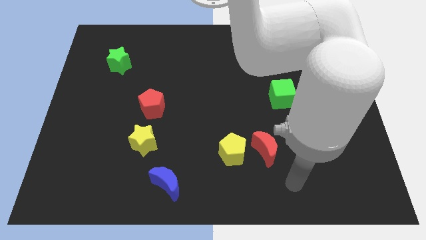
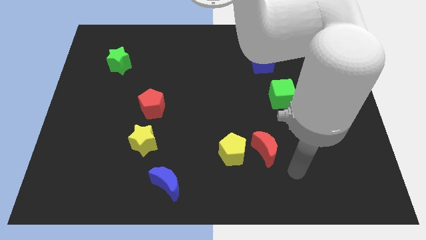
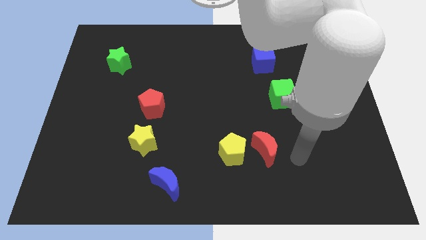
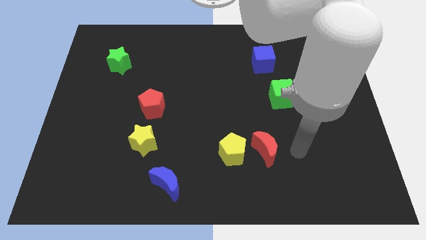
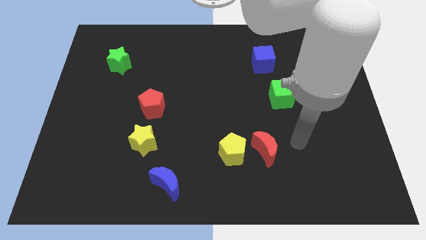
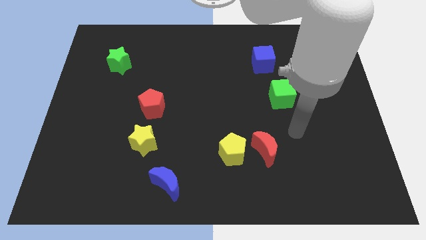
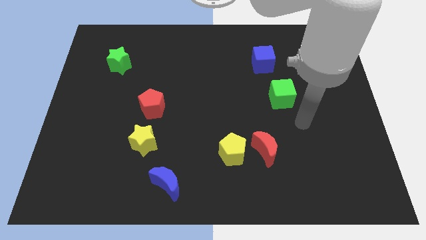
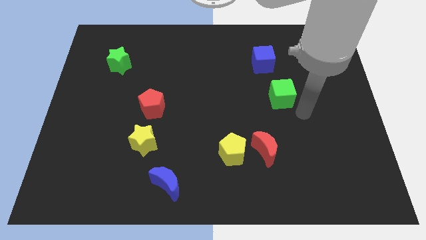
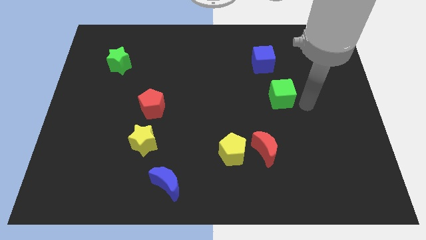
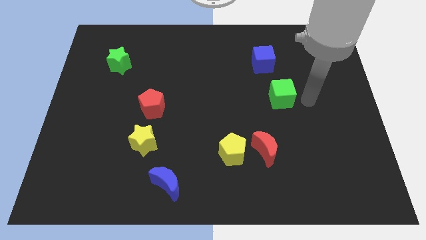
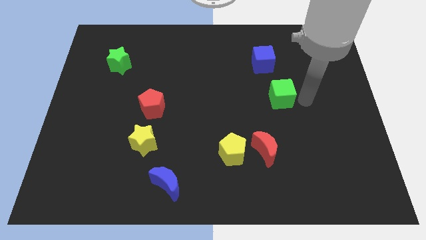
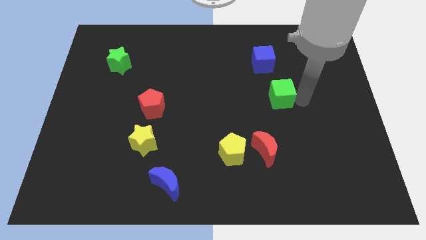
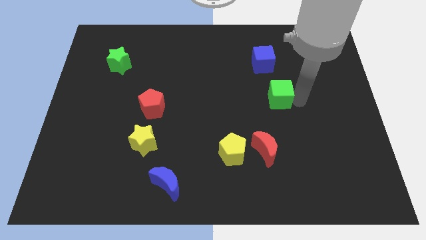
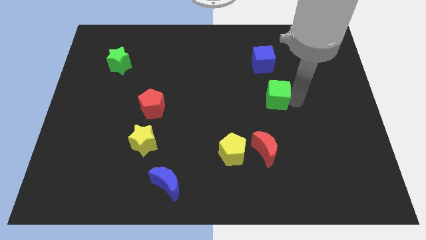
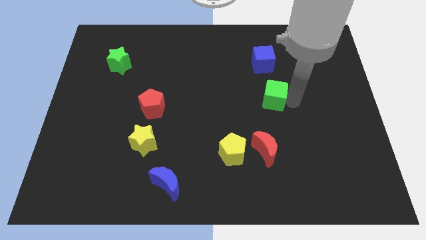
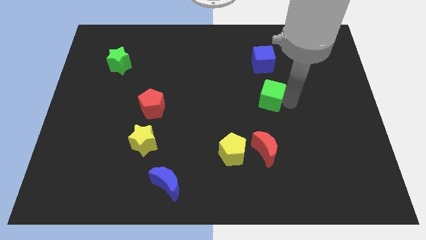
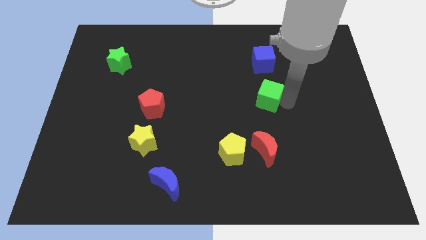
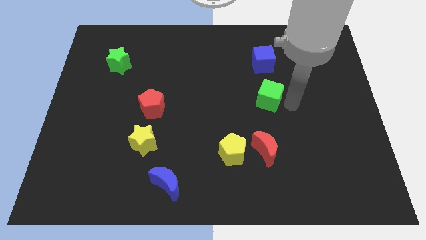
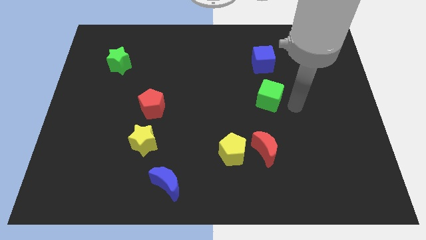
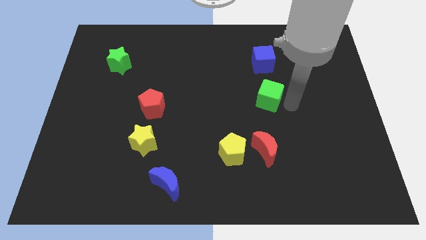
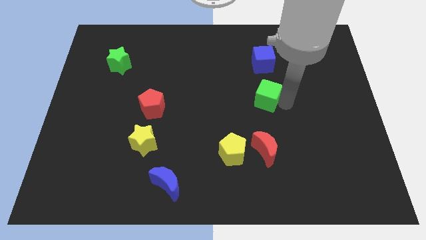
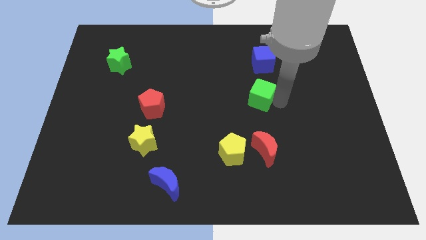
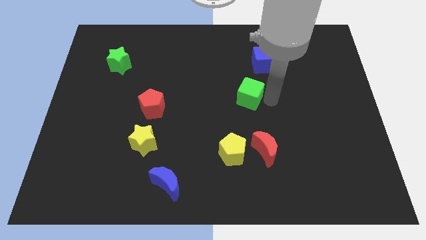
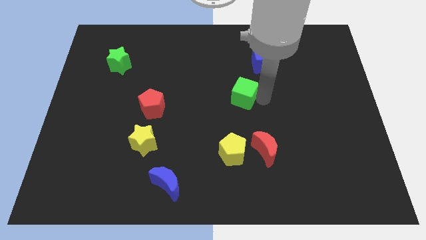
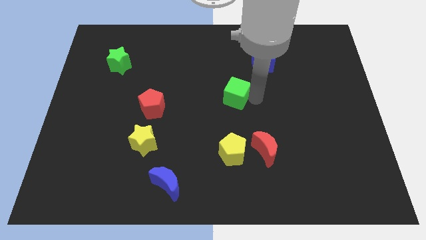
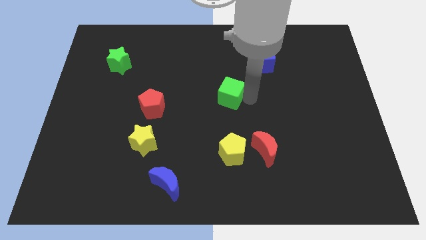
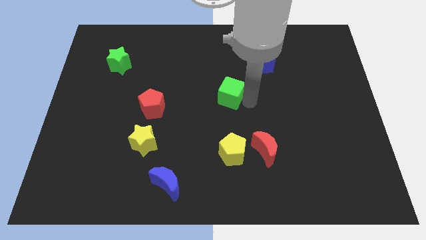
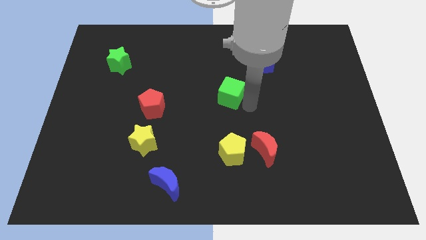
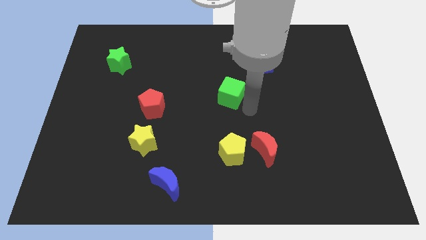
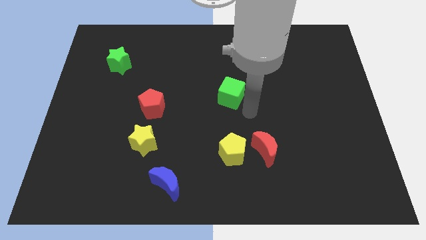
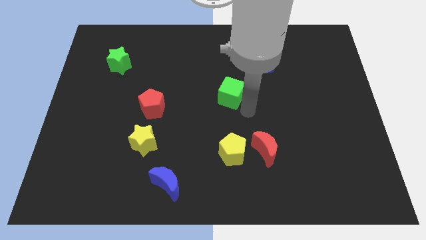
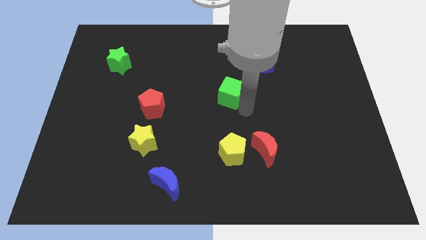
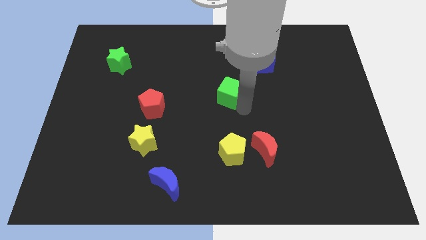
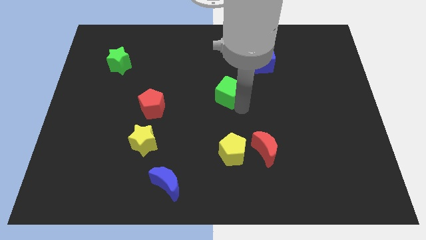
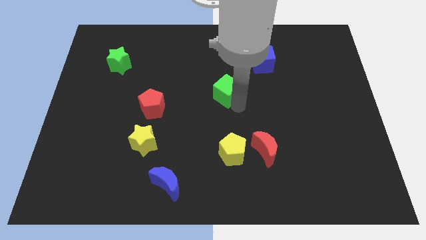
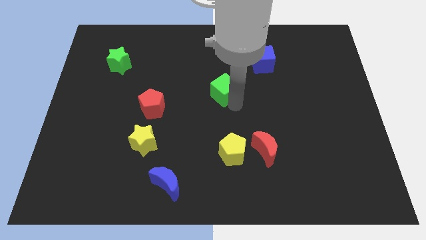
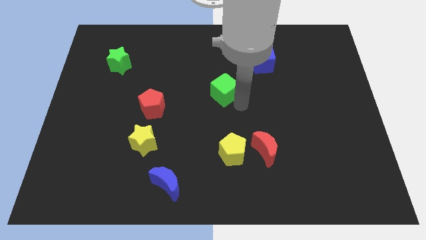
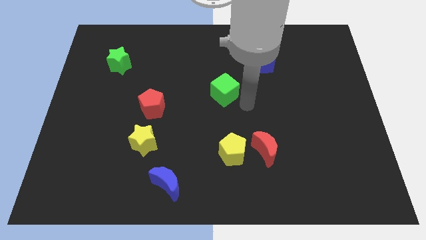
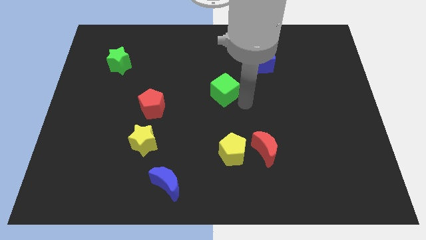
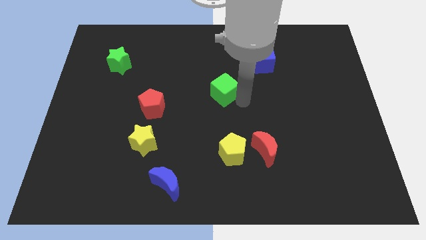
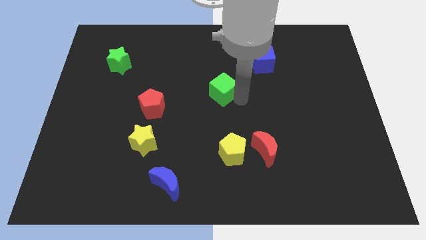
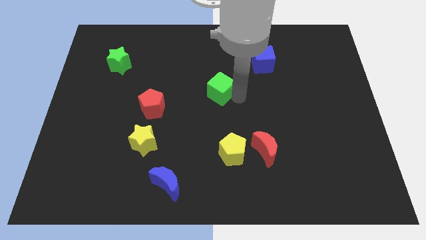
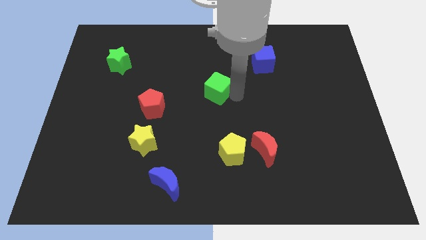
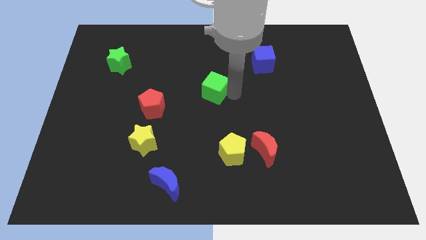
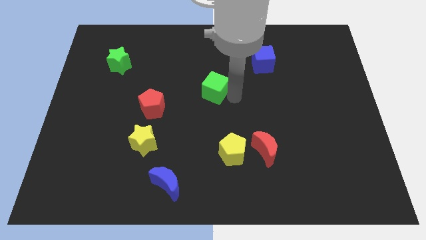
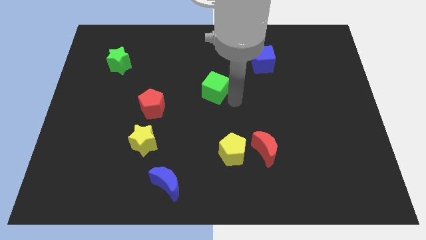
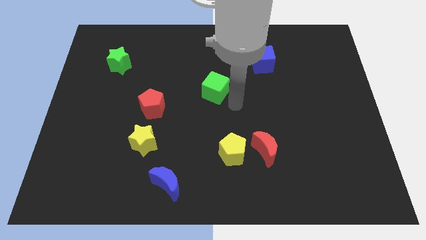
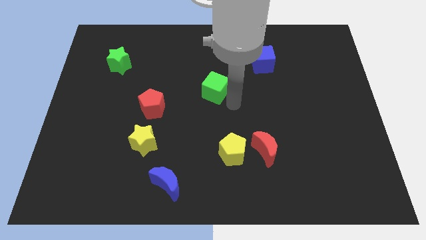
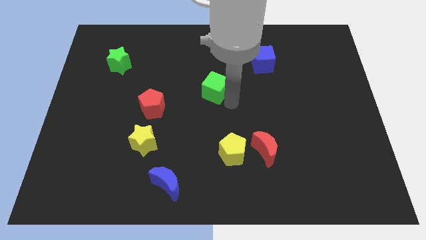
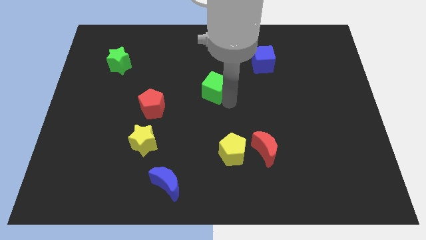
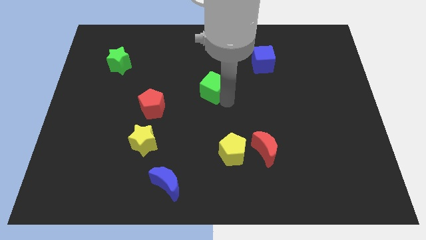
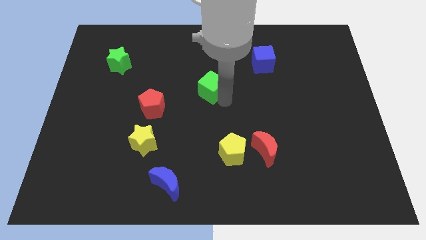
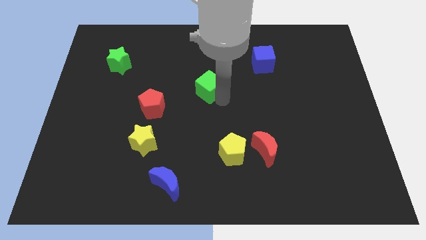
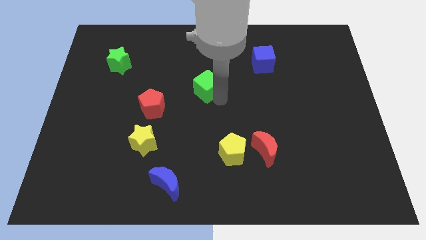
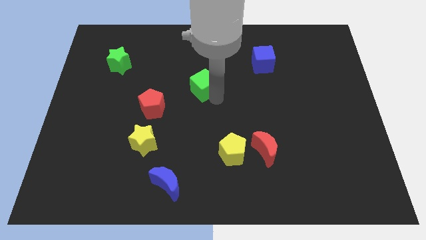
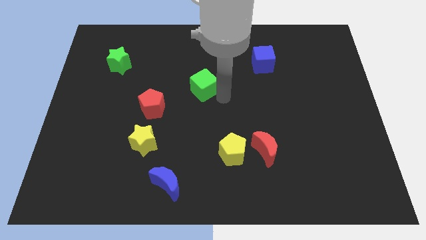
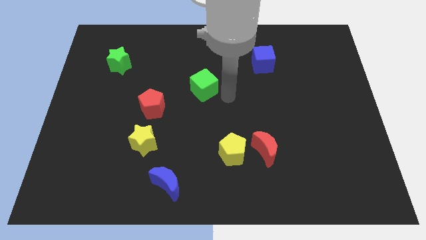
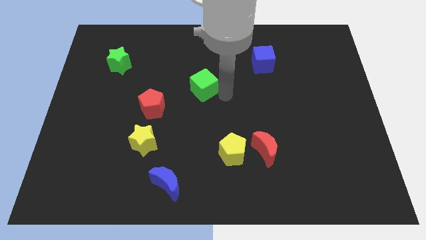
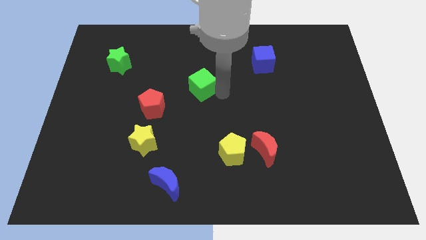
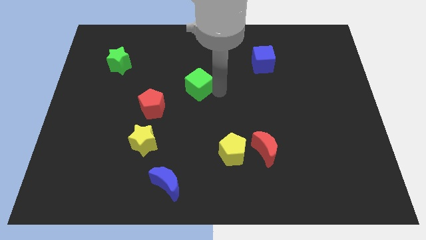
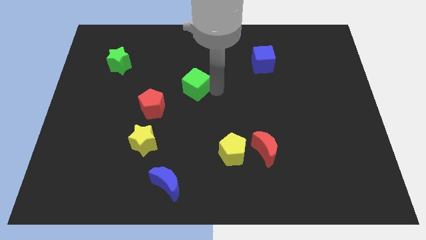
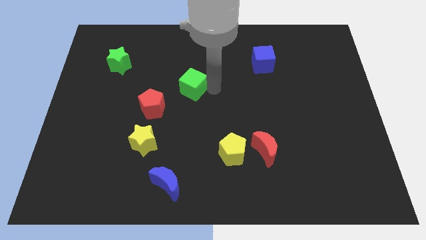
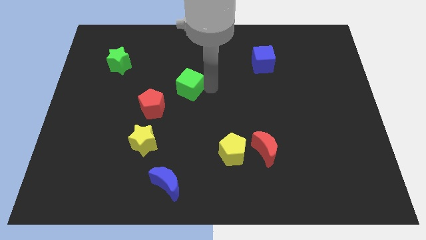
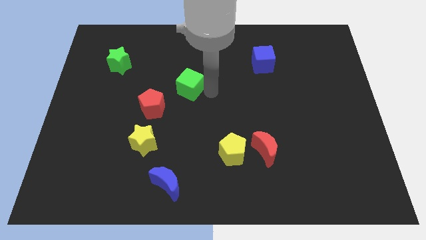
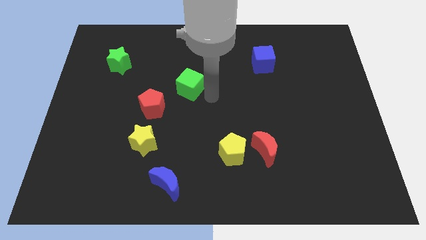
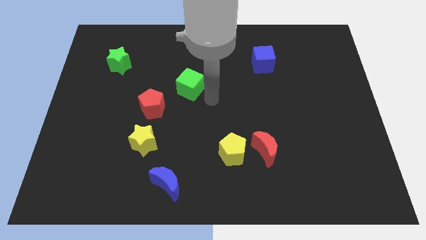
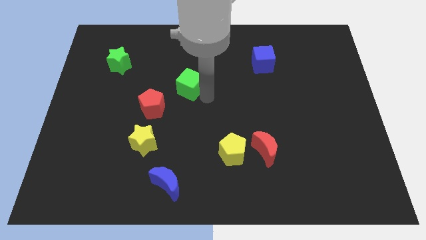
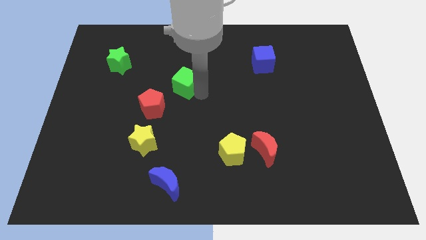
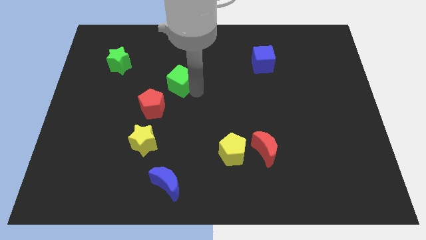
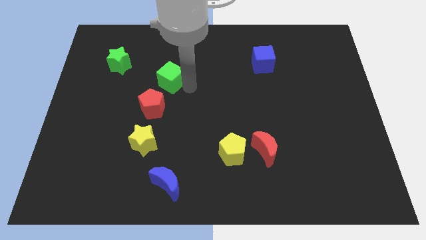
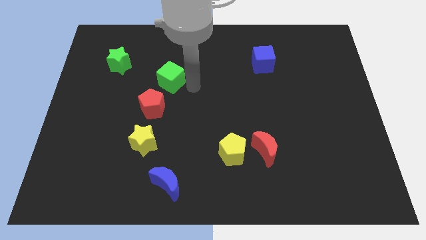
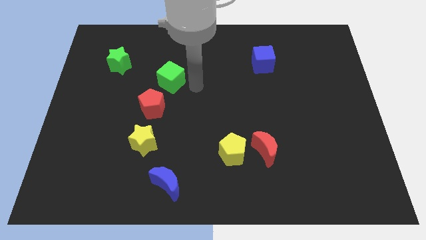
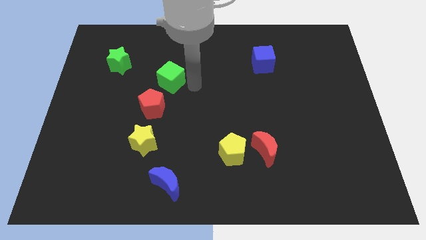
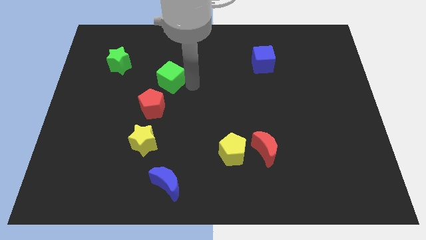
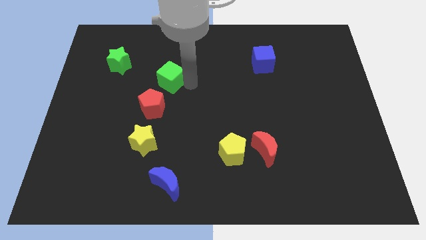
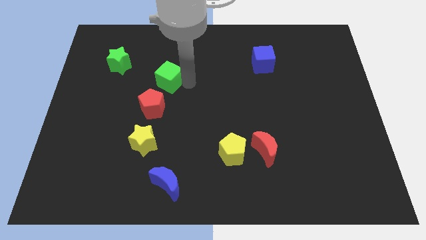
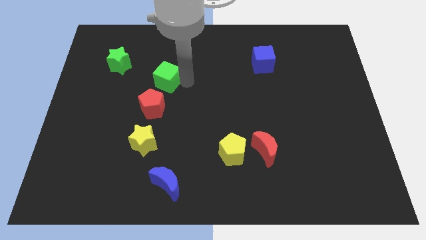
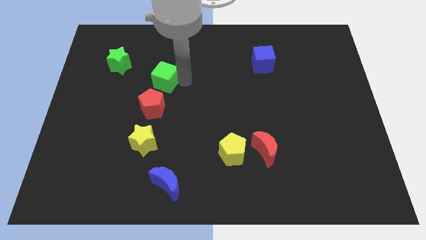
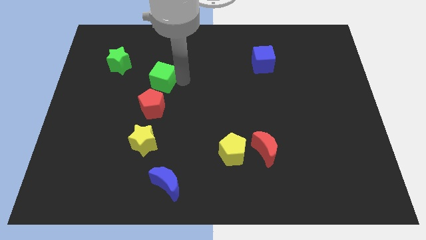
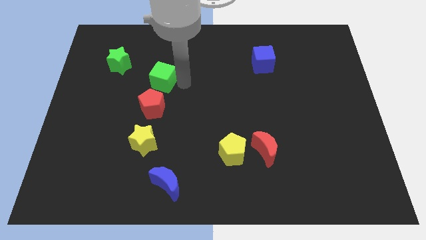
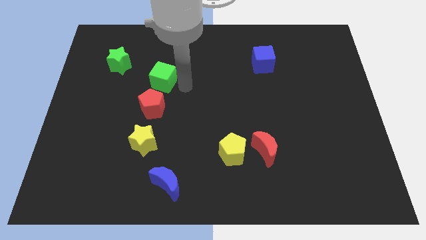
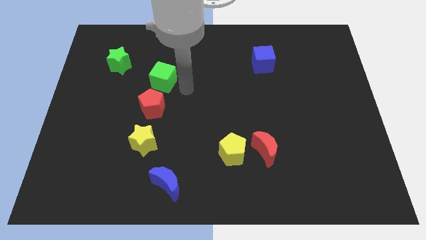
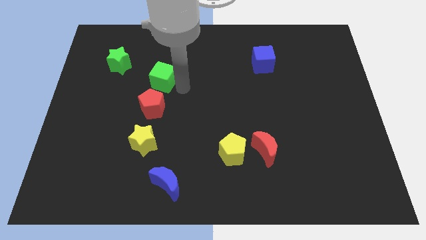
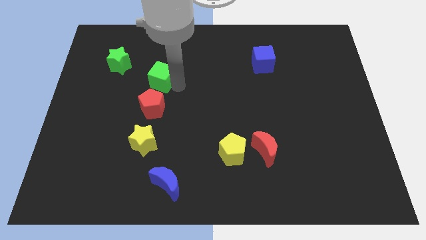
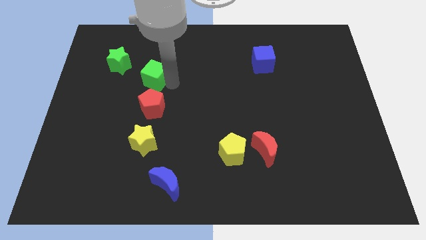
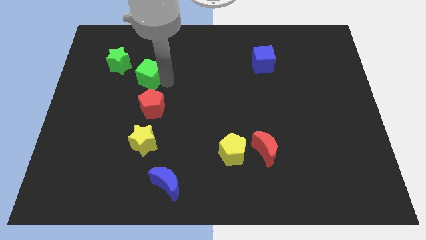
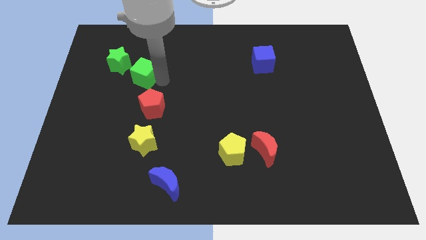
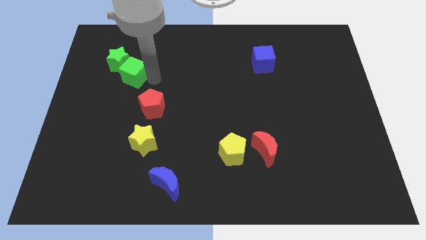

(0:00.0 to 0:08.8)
push the green cube close to the green star
